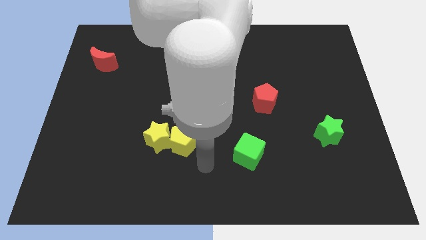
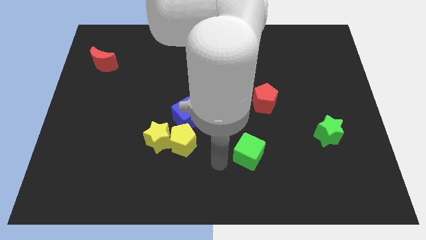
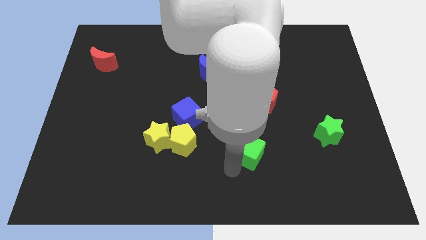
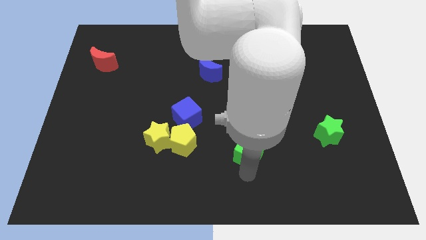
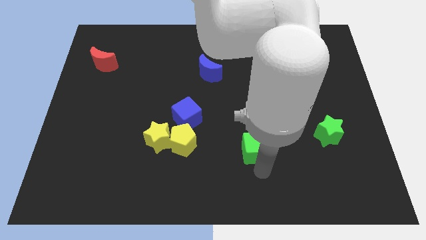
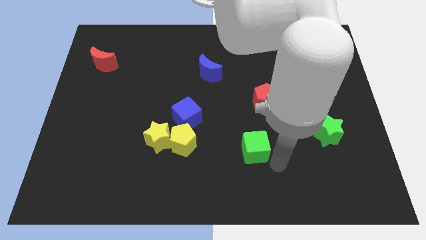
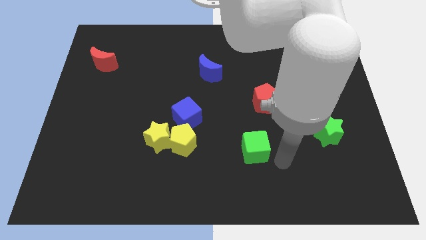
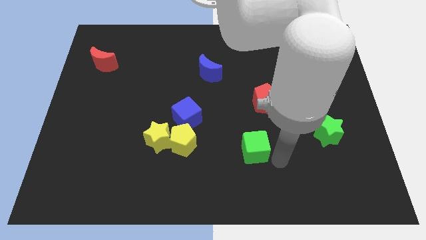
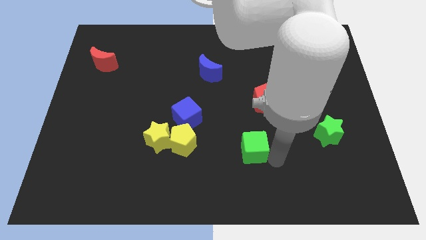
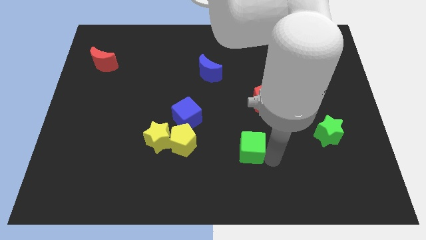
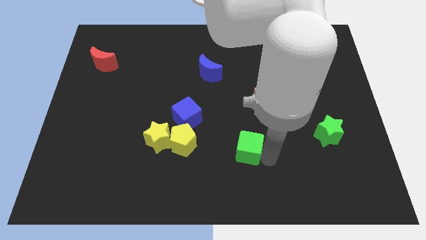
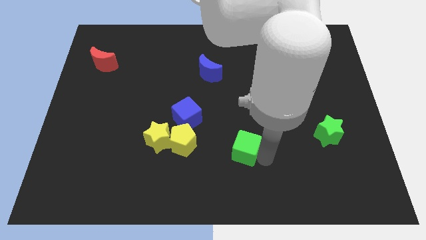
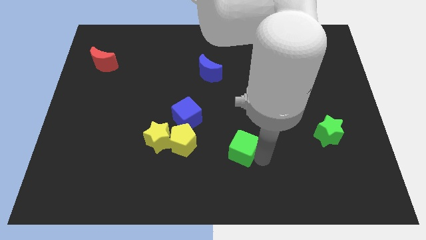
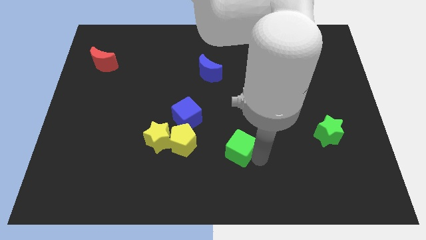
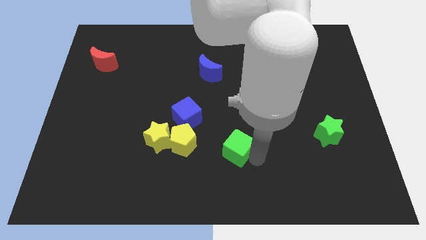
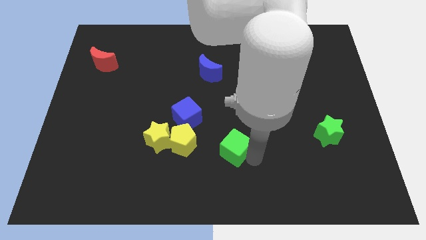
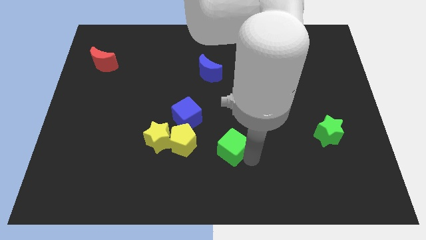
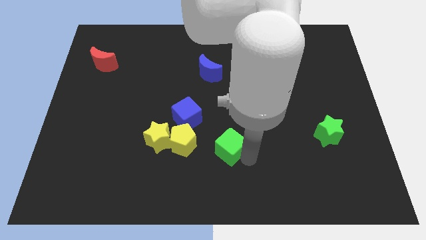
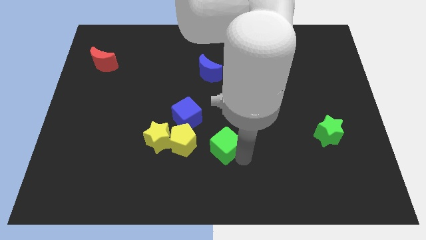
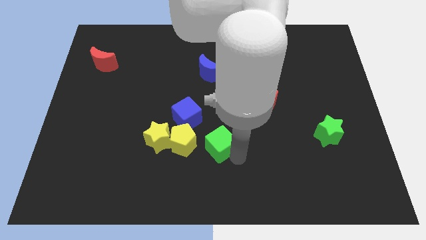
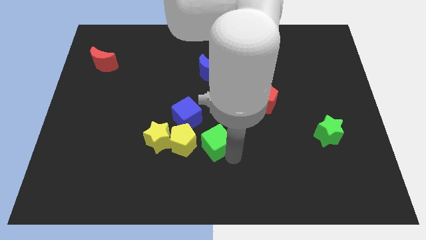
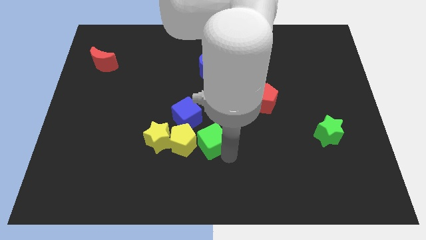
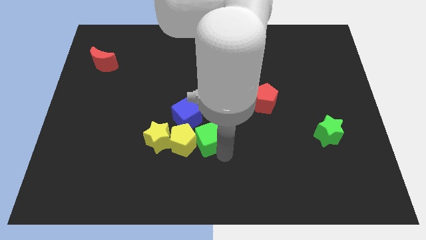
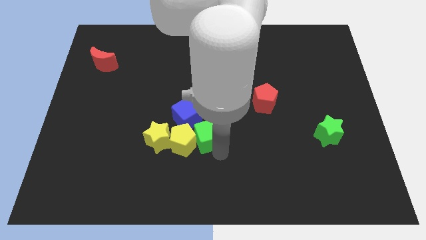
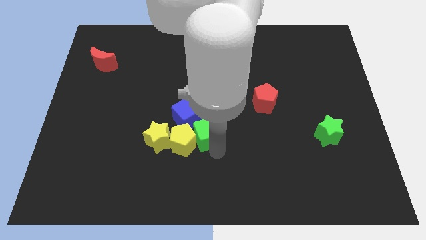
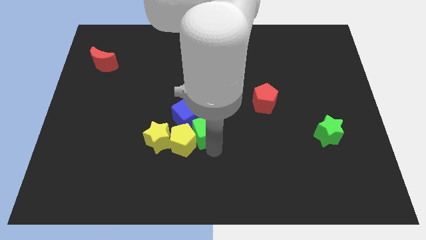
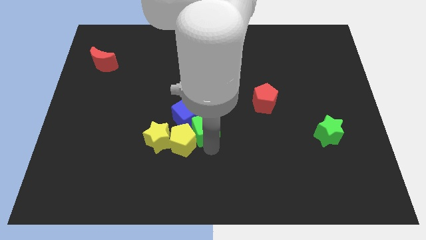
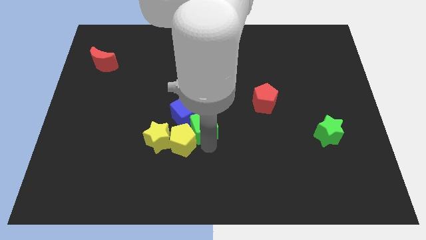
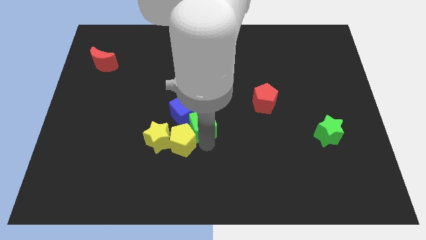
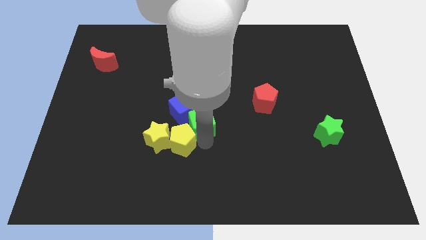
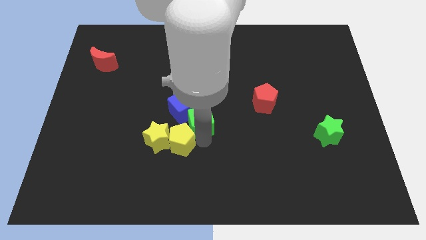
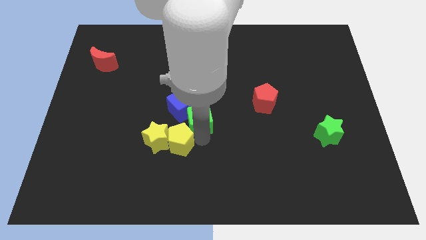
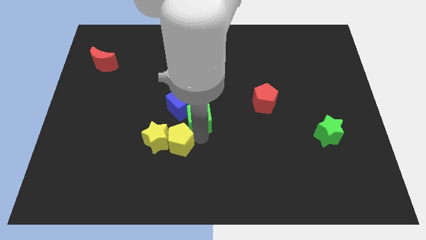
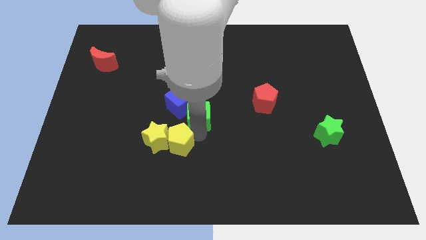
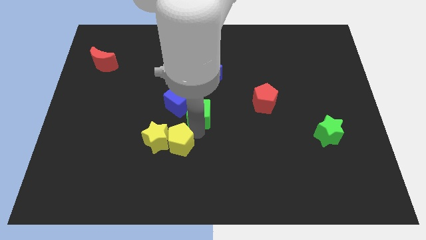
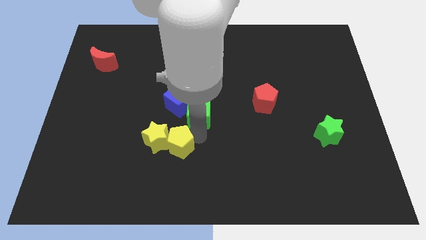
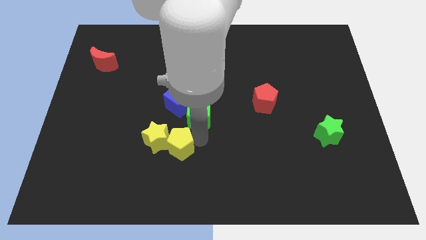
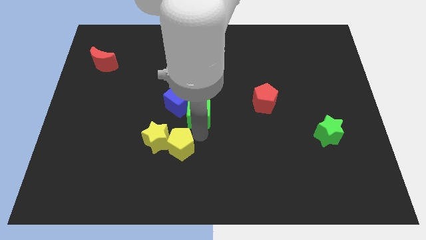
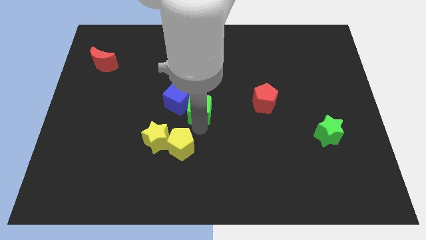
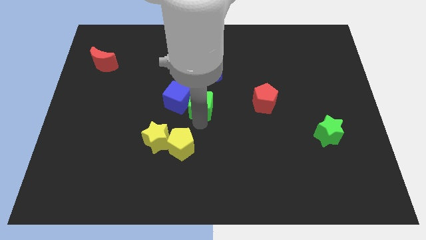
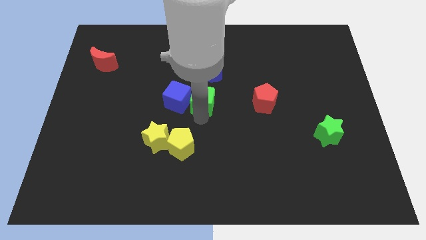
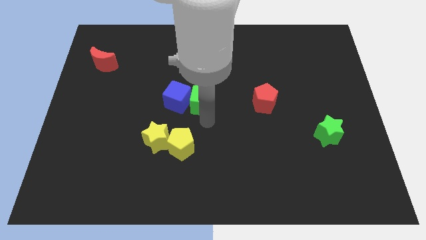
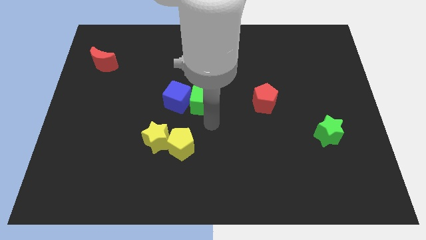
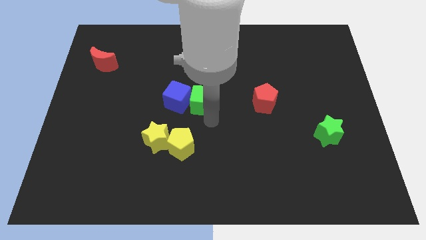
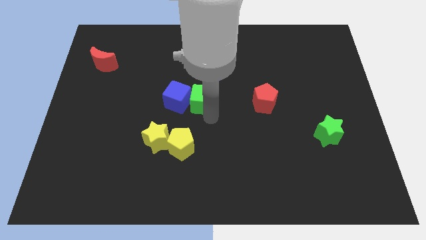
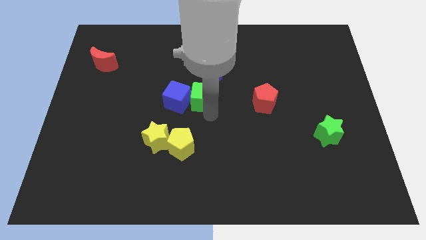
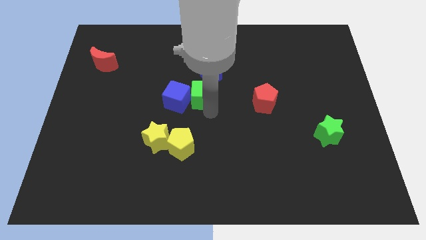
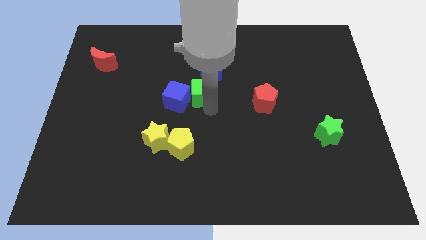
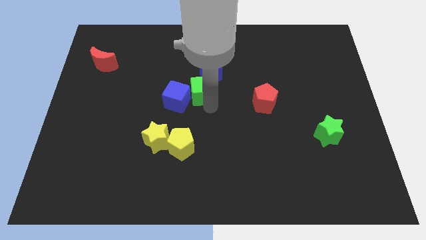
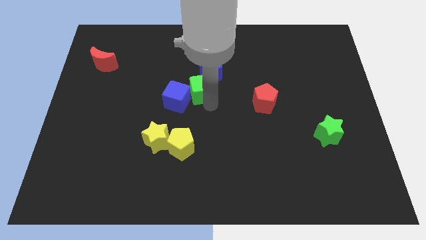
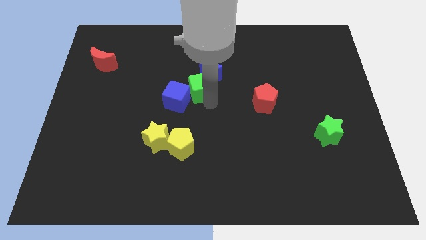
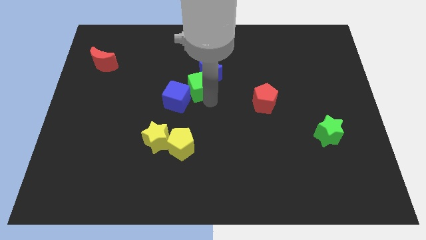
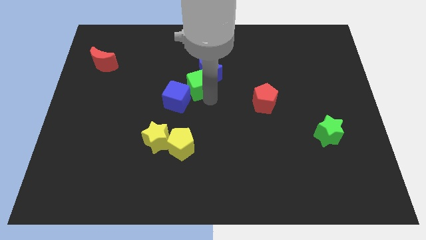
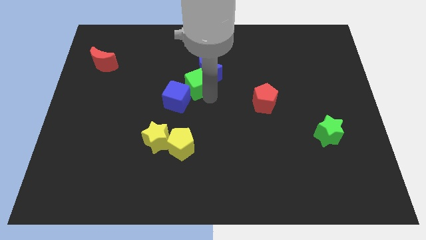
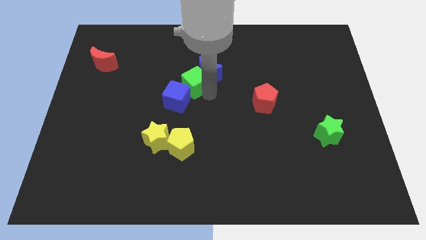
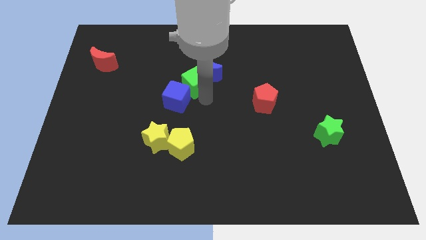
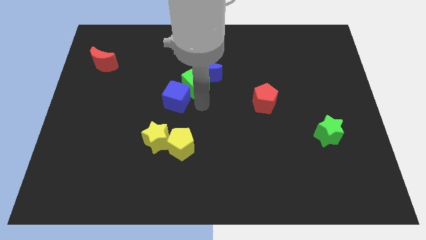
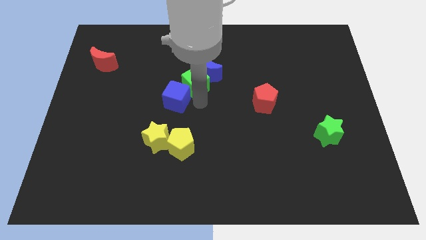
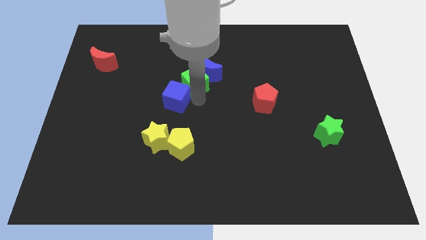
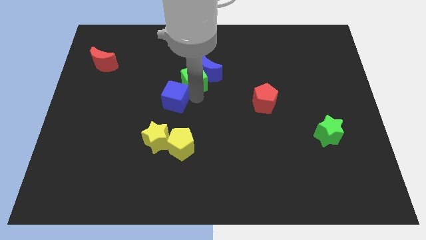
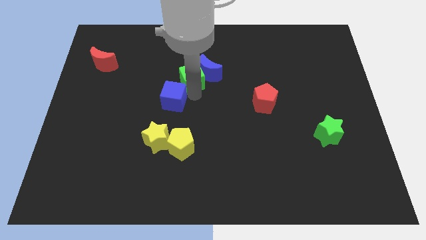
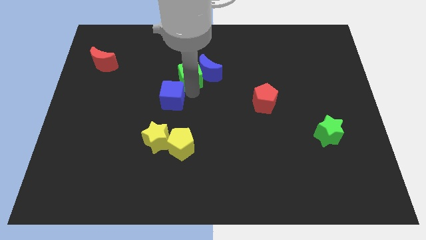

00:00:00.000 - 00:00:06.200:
move the green cube to the top left side of the blue moon

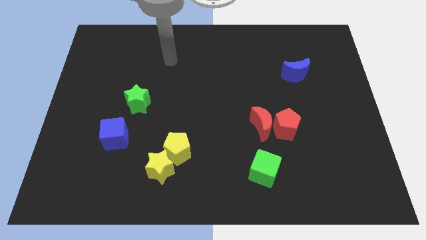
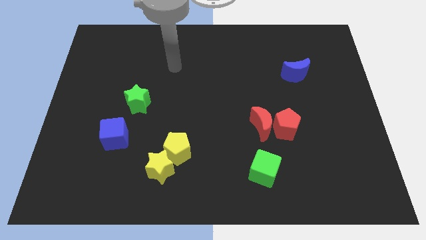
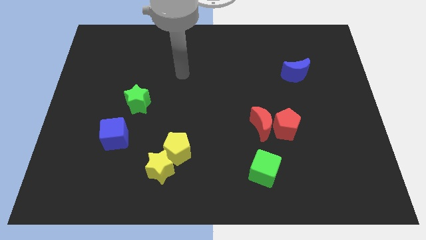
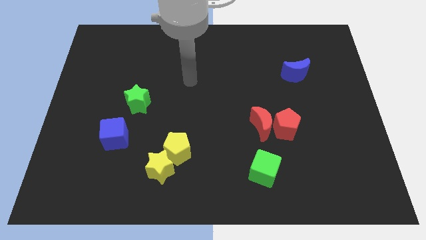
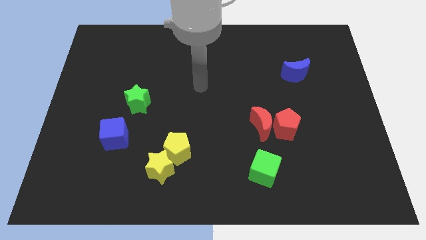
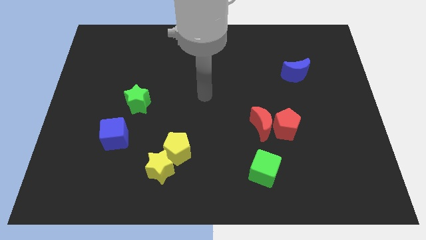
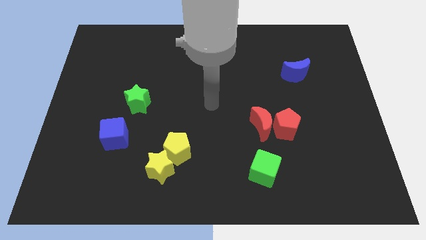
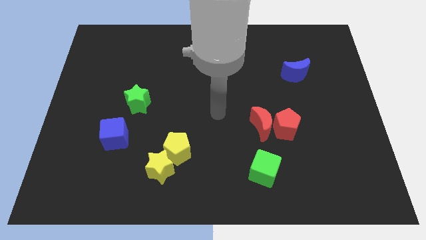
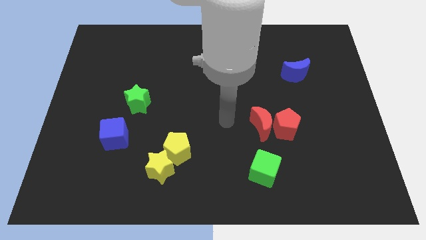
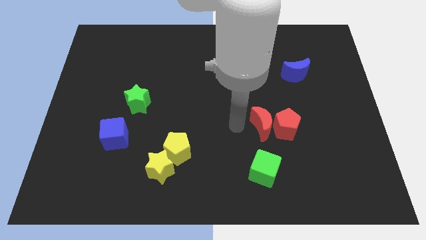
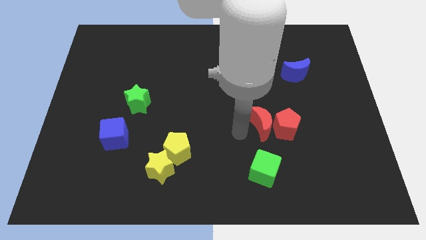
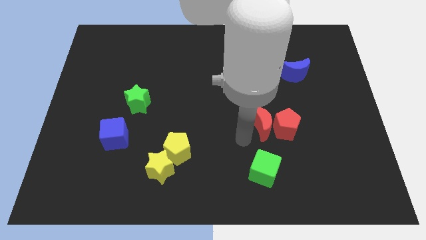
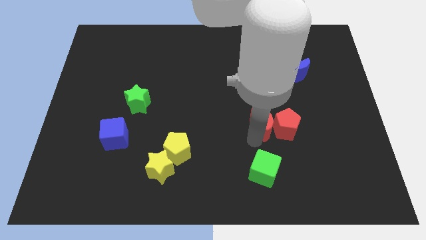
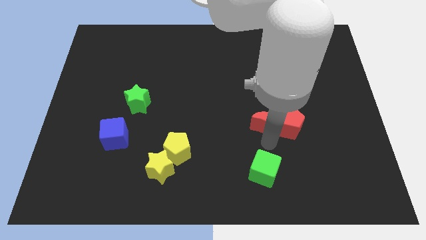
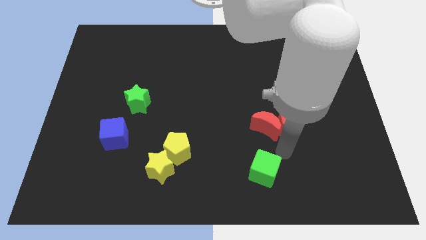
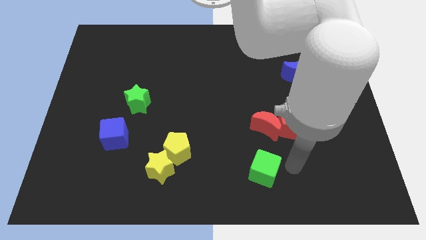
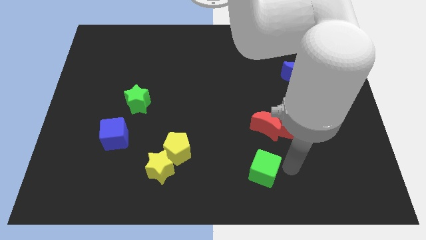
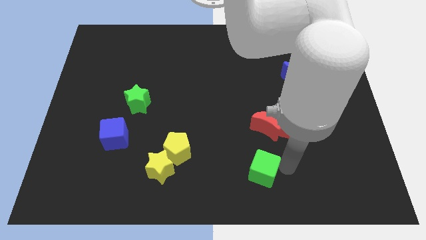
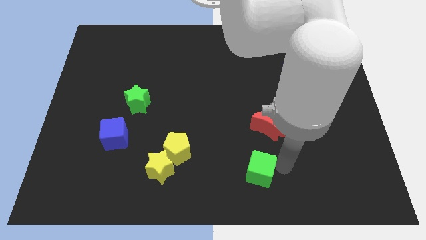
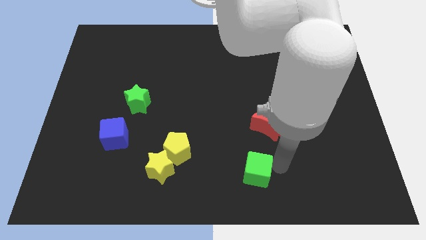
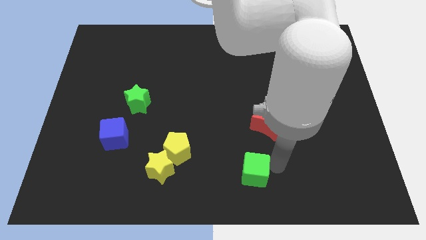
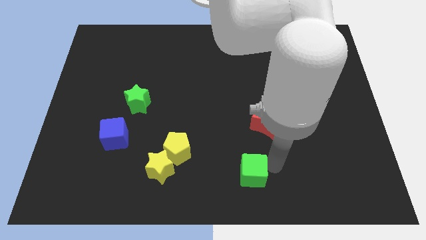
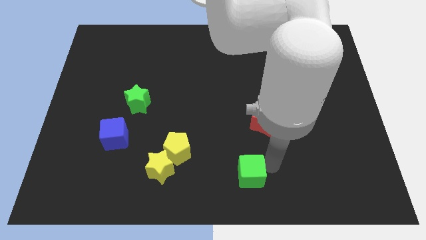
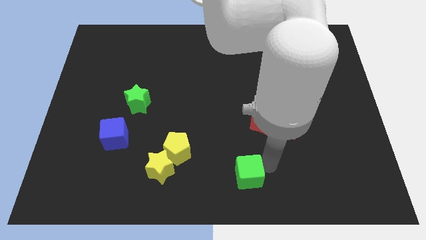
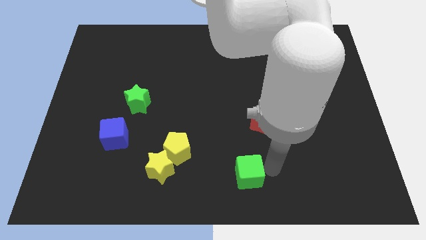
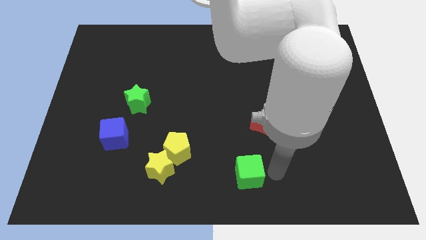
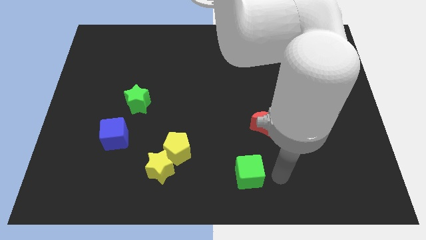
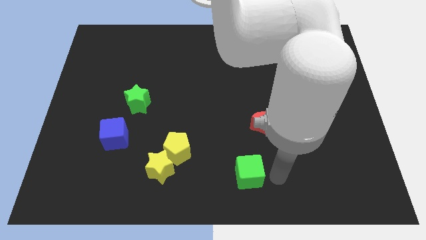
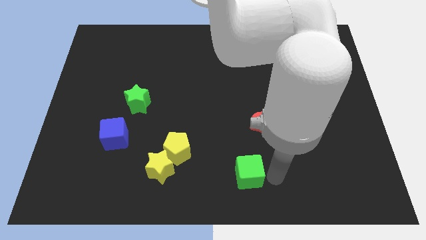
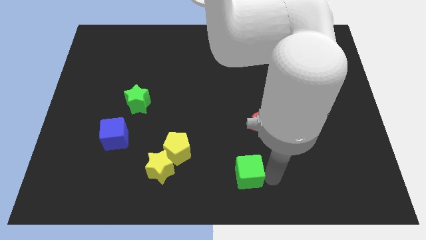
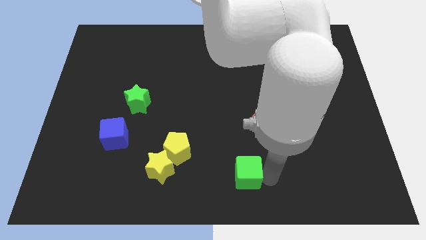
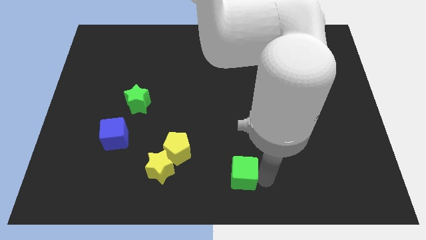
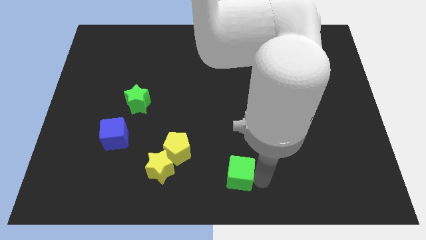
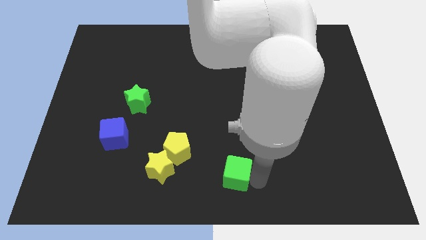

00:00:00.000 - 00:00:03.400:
slide the green cube just right of the yellow star
